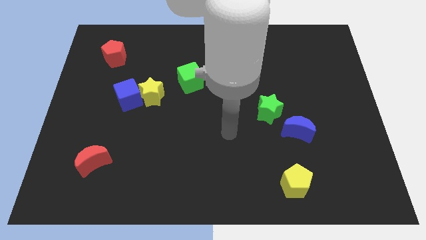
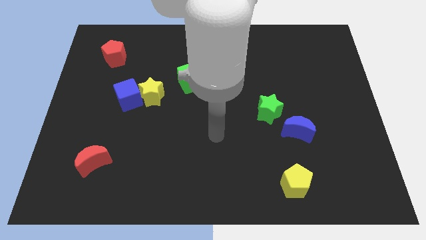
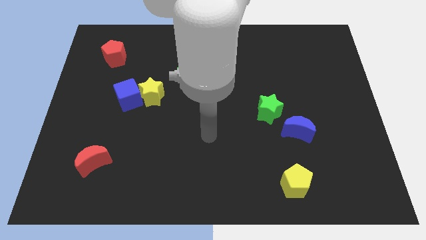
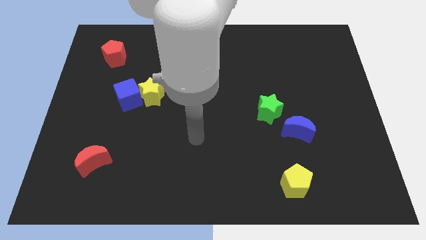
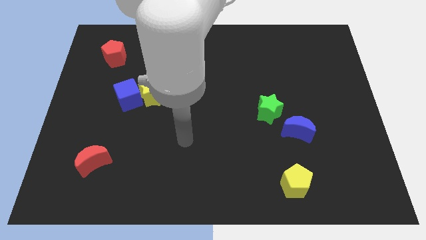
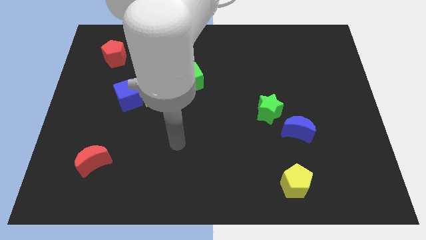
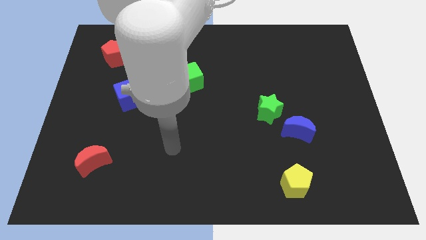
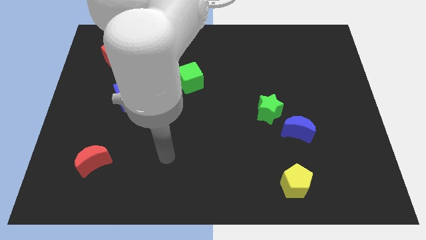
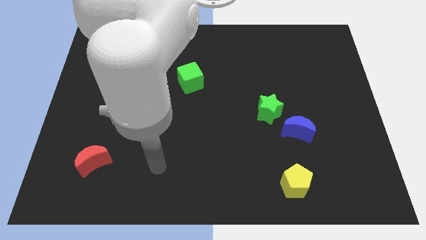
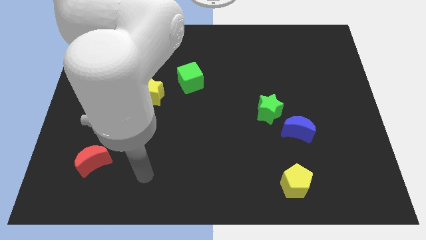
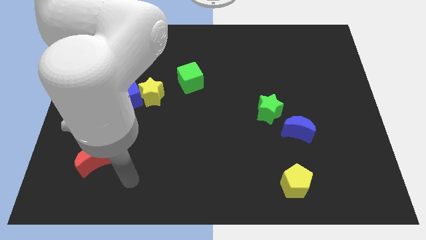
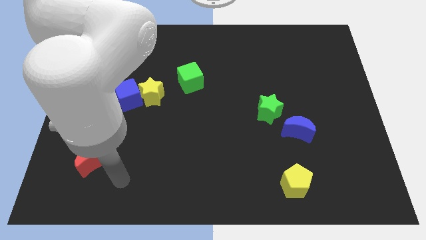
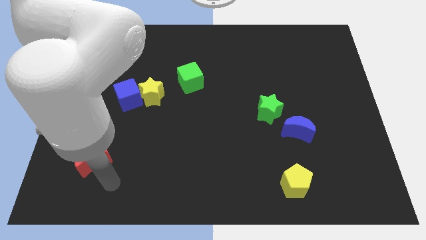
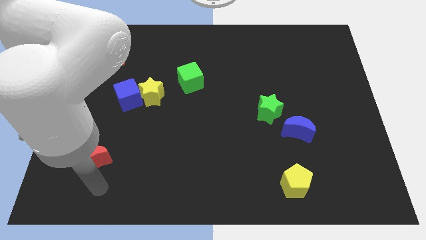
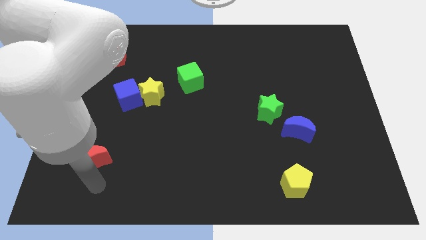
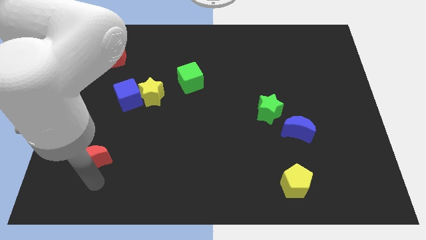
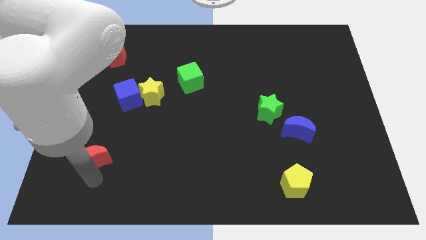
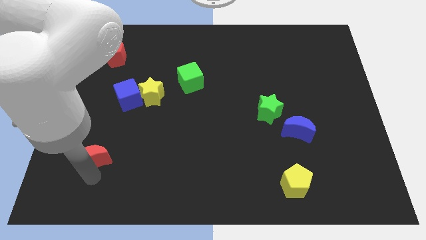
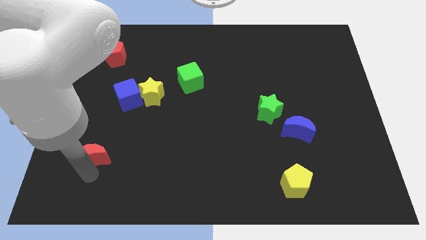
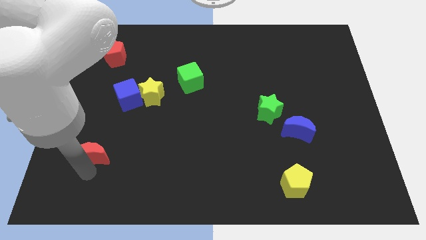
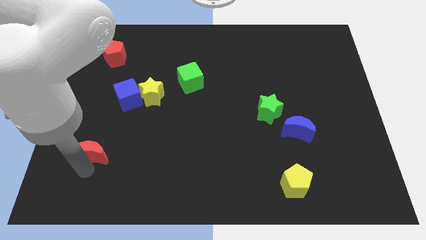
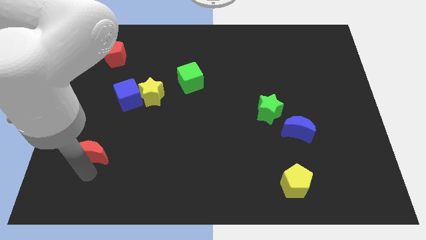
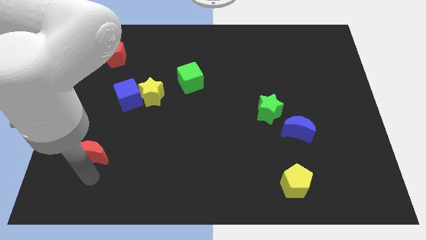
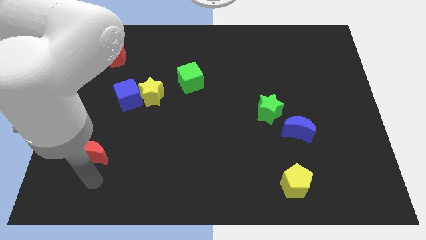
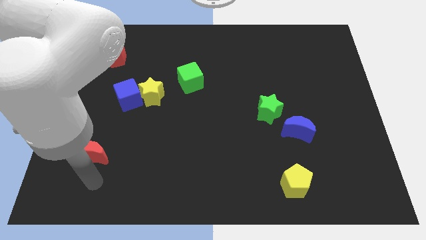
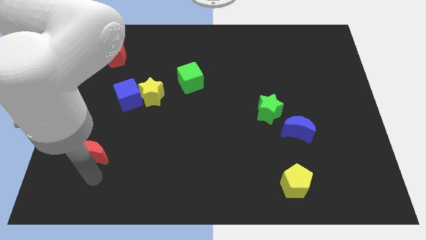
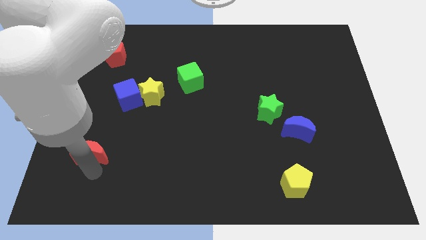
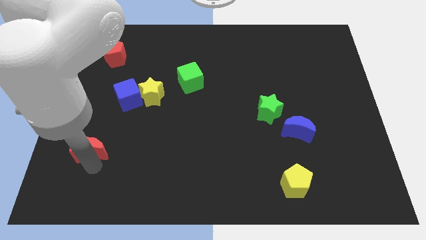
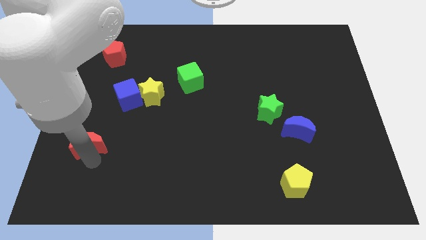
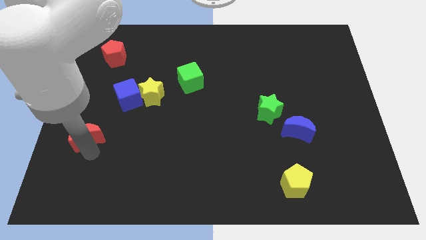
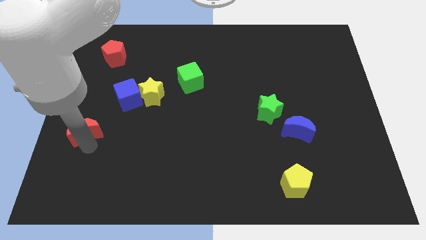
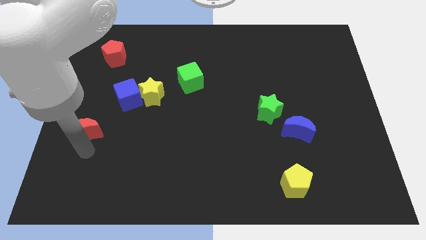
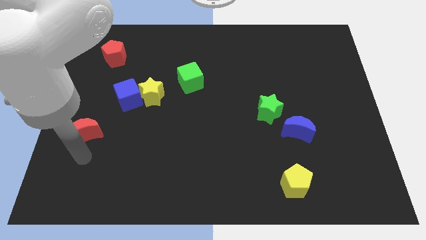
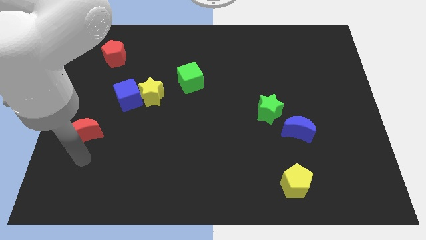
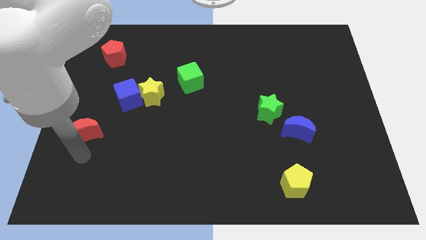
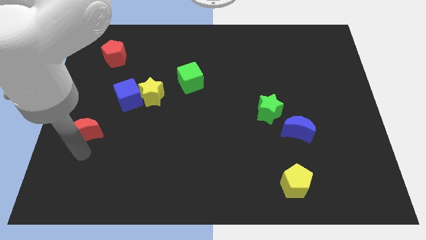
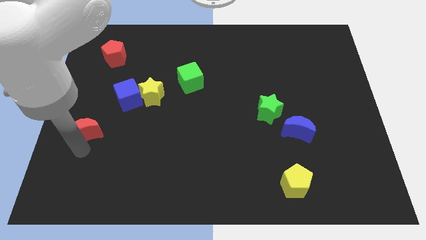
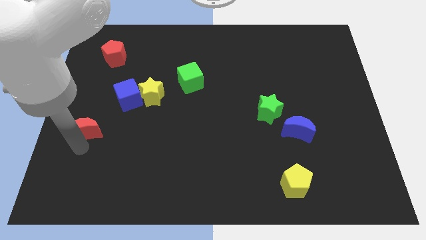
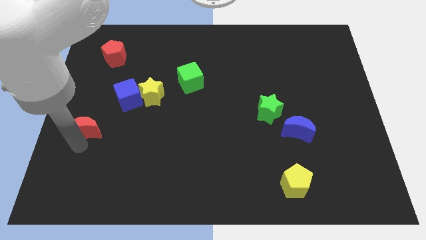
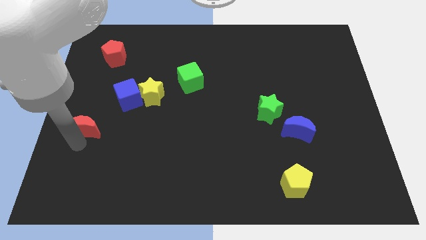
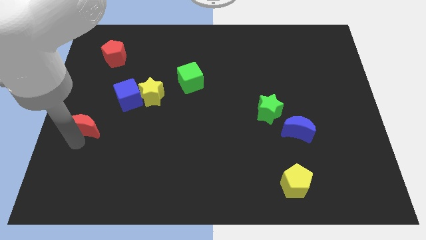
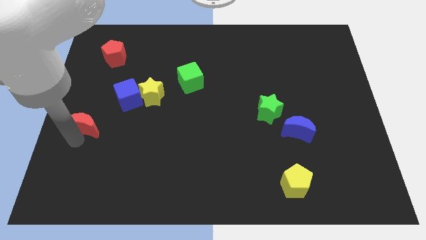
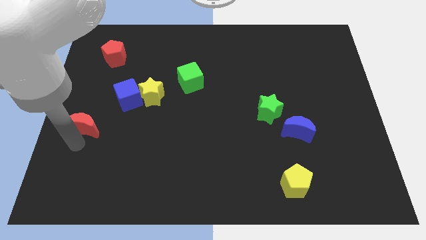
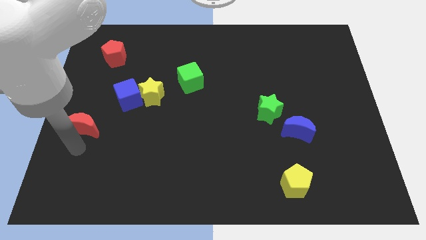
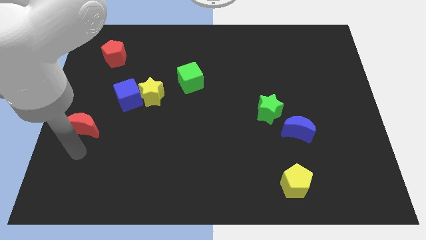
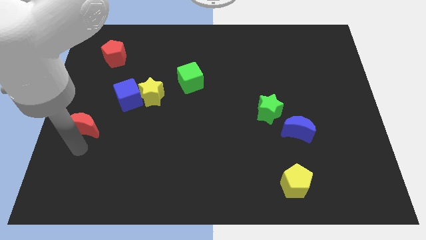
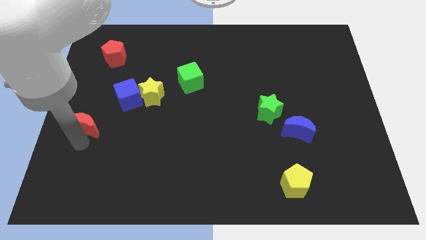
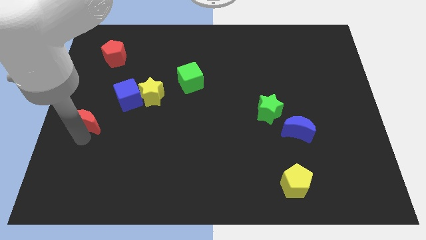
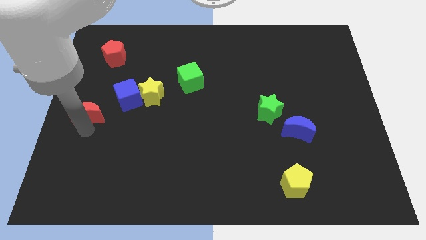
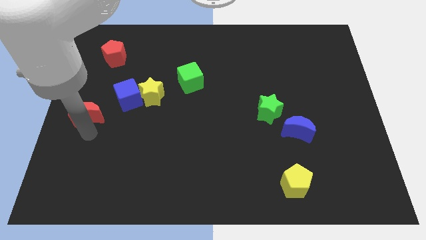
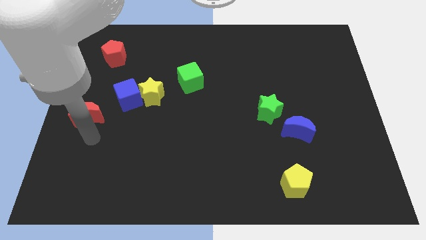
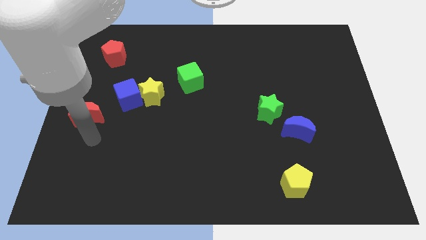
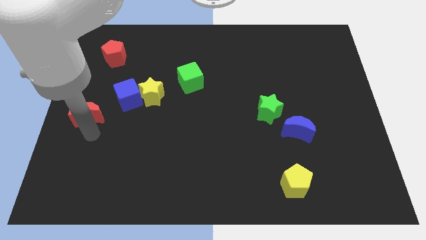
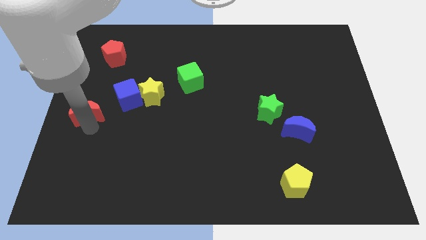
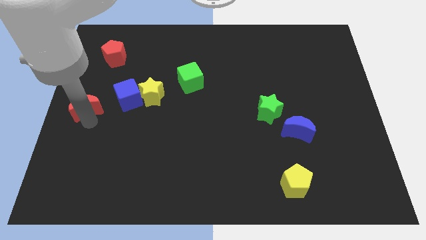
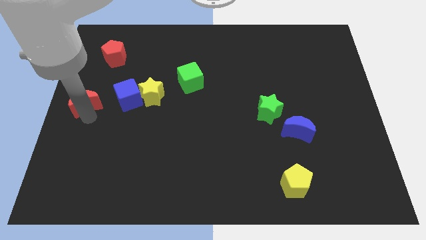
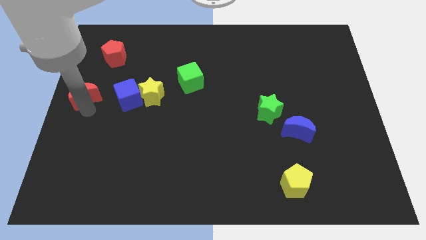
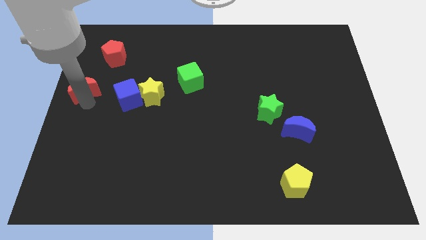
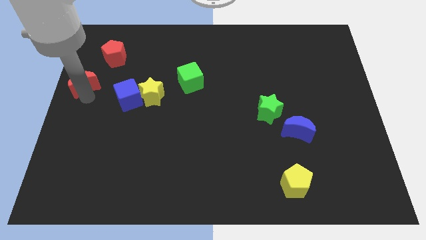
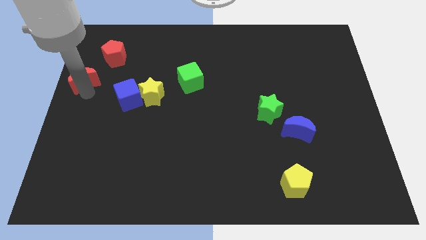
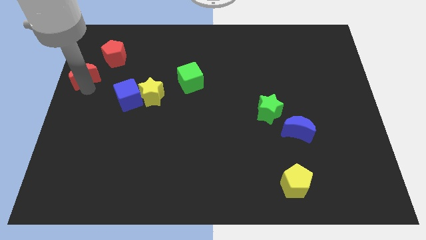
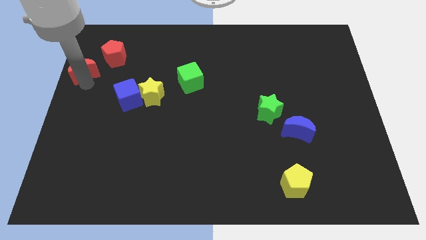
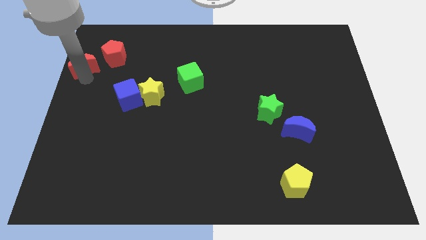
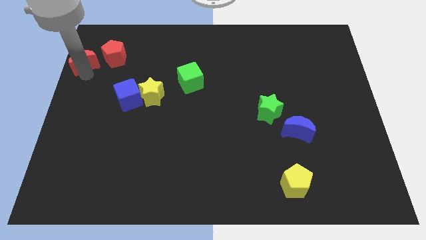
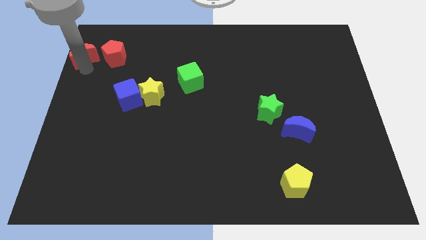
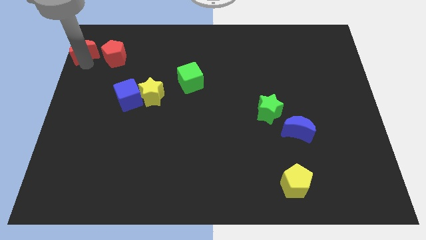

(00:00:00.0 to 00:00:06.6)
slide the red moon to the upper left corner

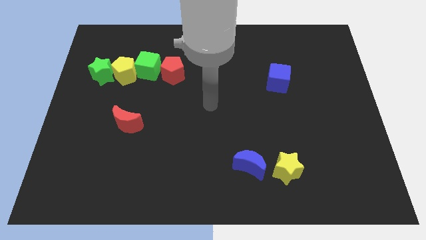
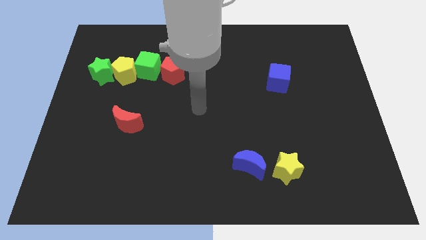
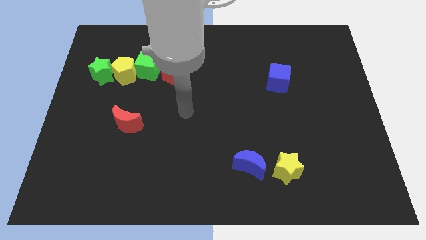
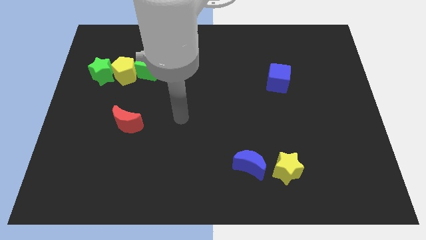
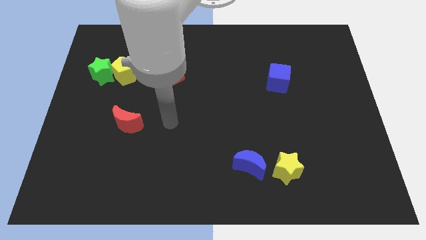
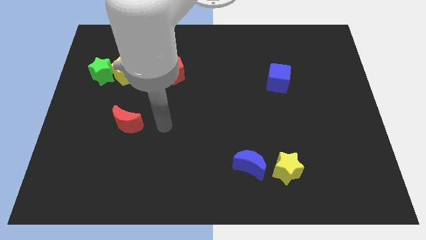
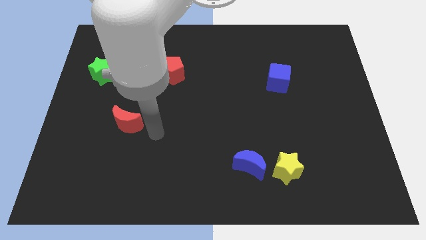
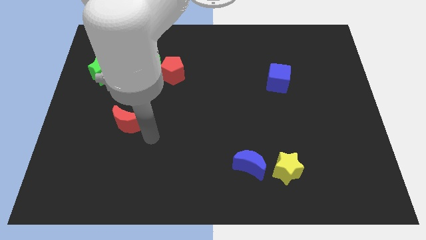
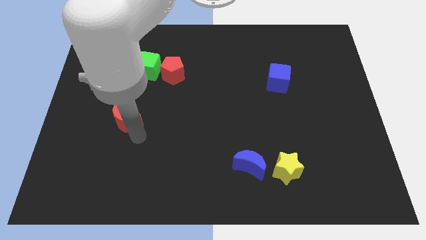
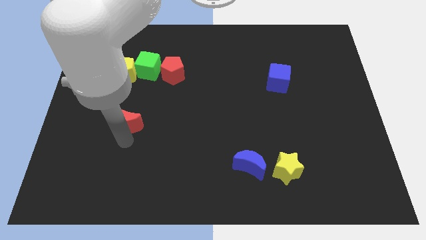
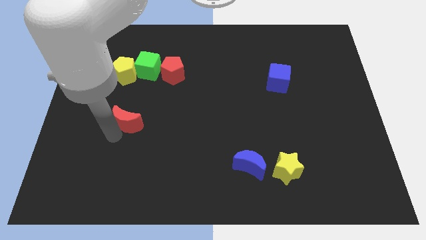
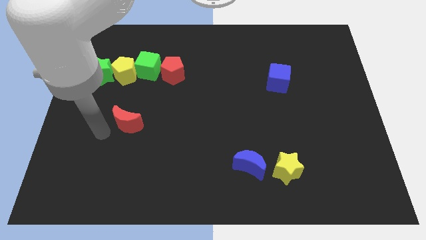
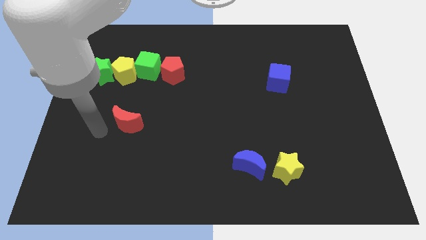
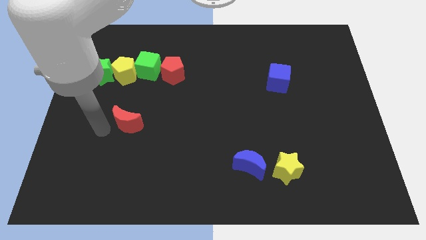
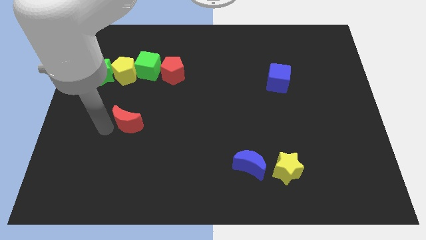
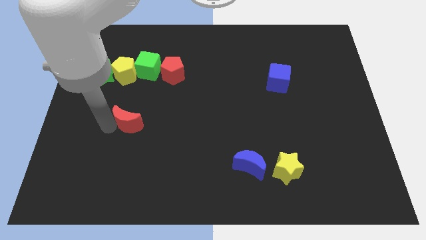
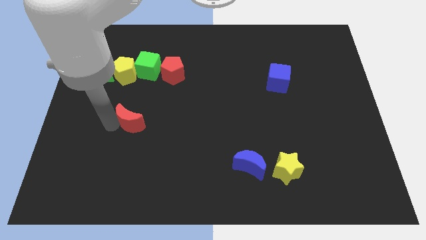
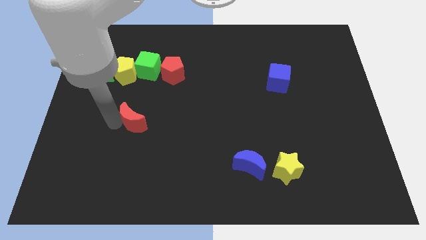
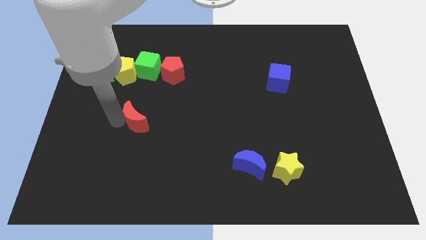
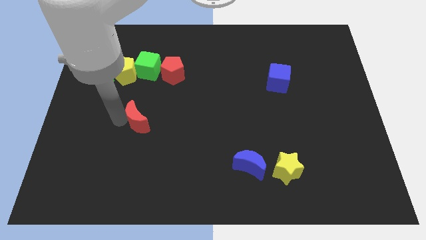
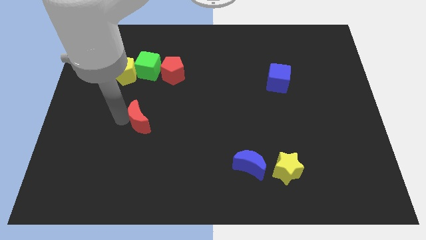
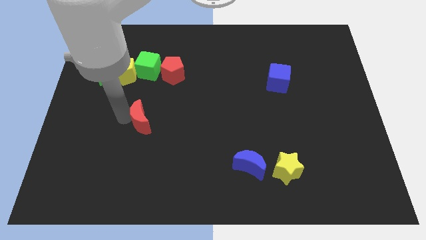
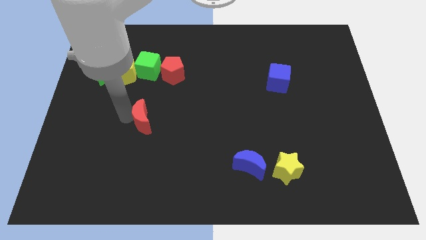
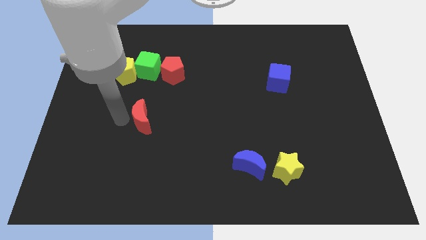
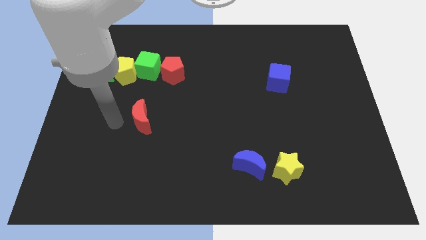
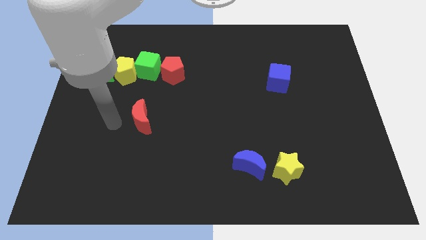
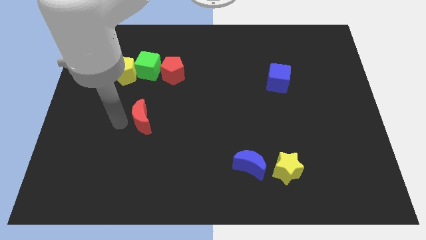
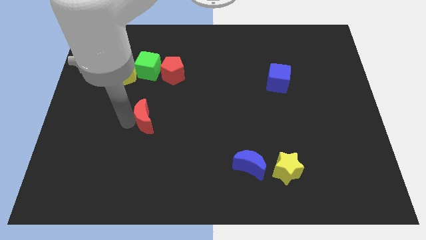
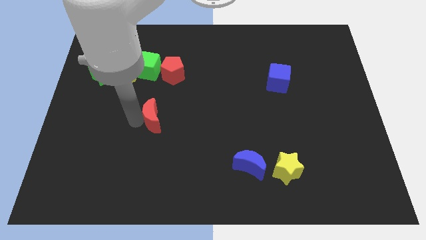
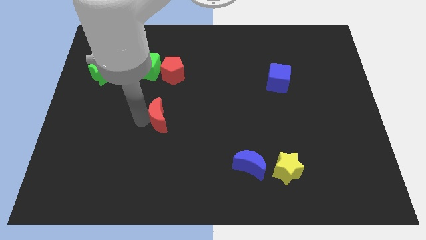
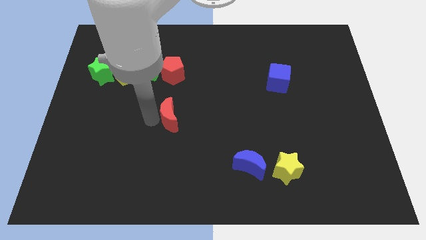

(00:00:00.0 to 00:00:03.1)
move the red moon to the center of the board
